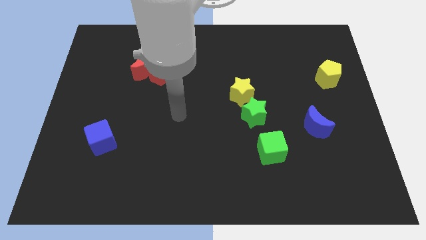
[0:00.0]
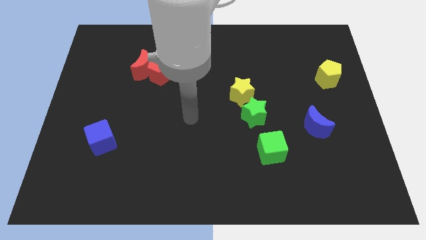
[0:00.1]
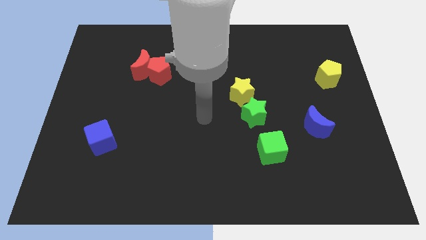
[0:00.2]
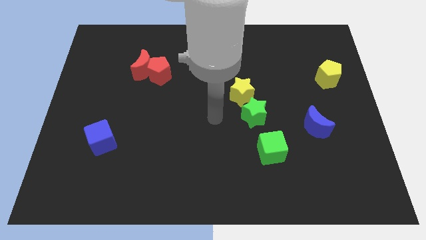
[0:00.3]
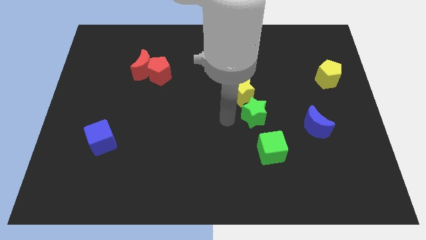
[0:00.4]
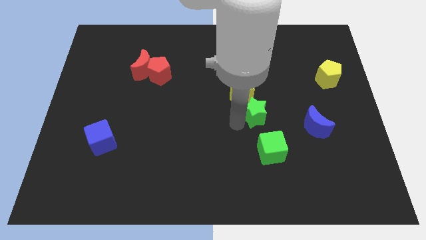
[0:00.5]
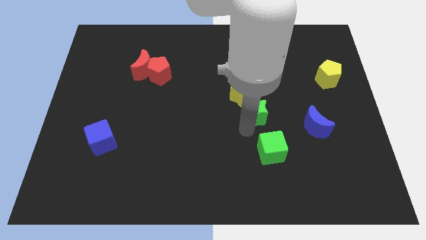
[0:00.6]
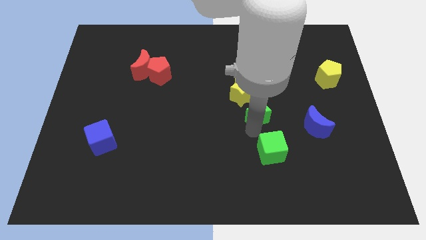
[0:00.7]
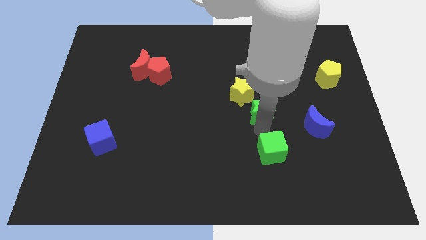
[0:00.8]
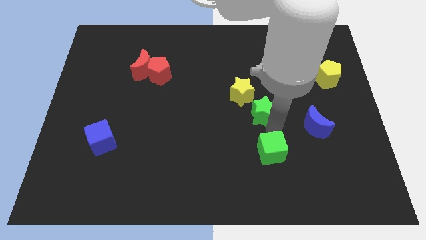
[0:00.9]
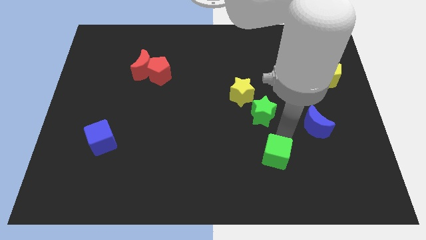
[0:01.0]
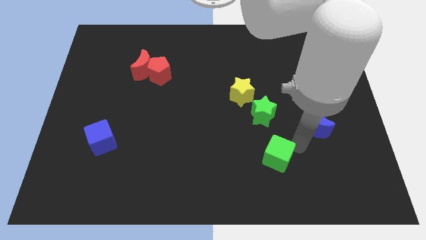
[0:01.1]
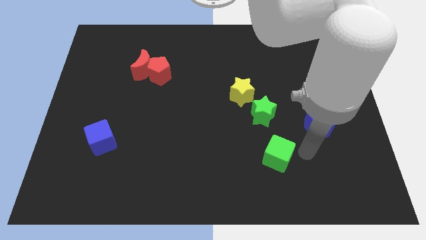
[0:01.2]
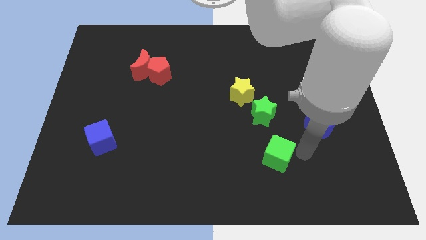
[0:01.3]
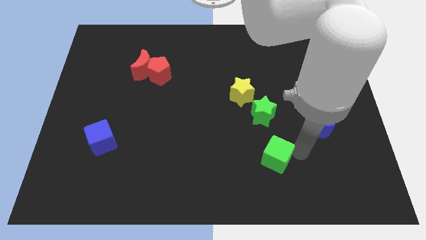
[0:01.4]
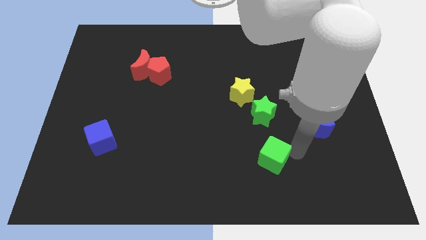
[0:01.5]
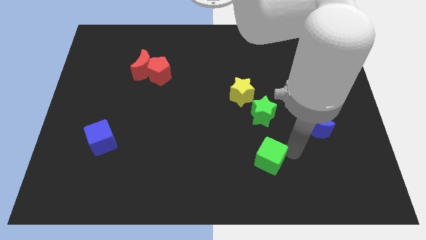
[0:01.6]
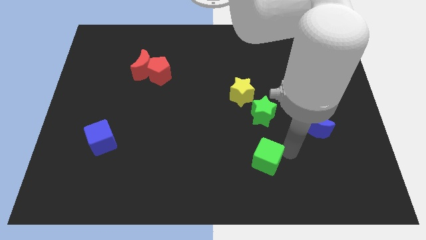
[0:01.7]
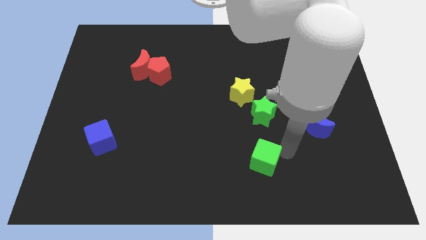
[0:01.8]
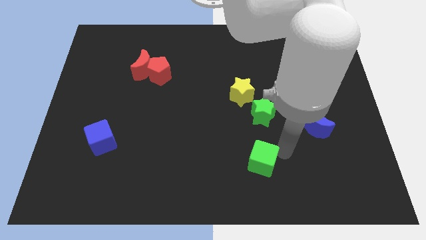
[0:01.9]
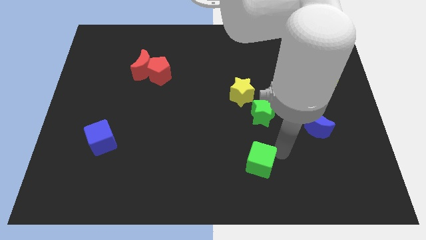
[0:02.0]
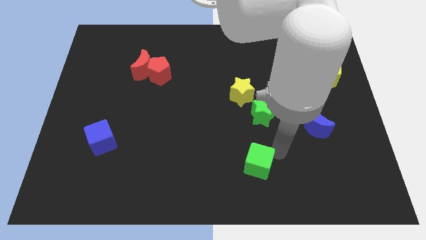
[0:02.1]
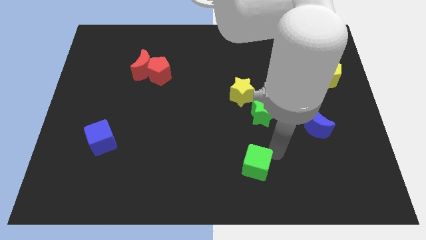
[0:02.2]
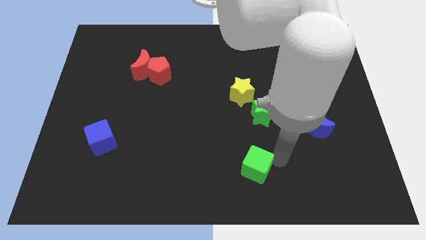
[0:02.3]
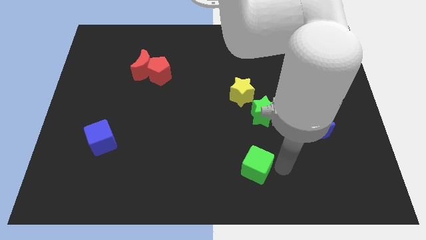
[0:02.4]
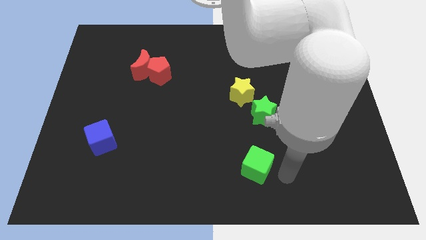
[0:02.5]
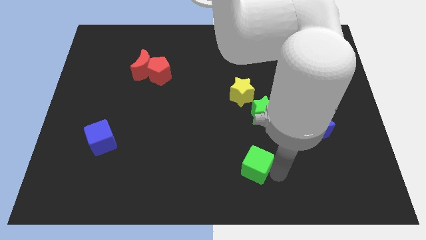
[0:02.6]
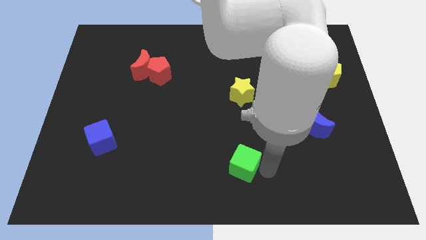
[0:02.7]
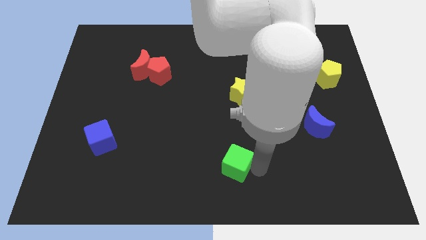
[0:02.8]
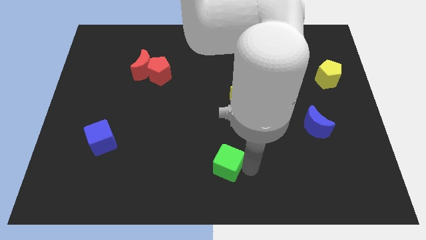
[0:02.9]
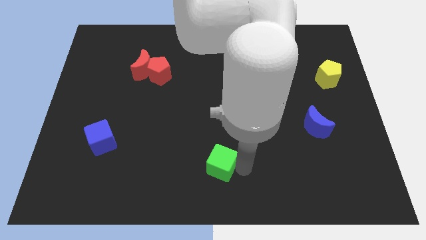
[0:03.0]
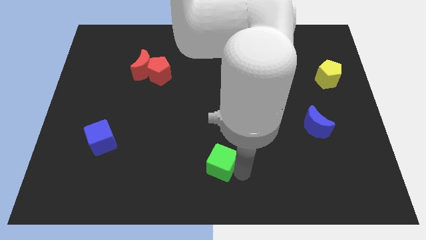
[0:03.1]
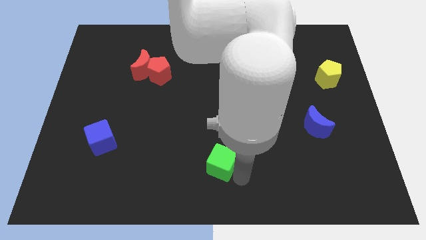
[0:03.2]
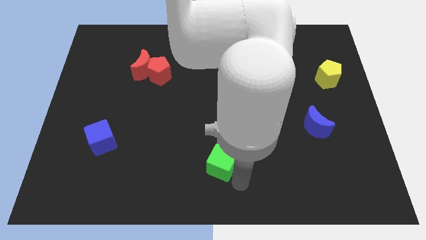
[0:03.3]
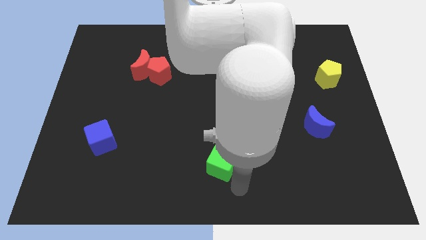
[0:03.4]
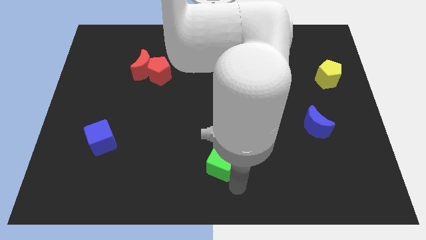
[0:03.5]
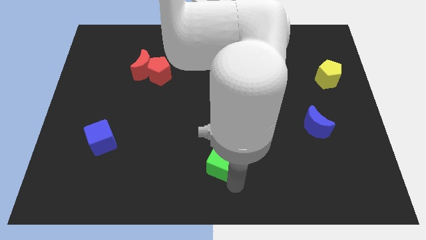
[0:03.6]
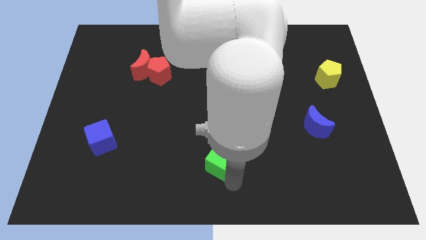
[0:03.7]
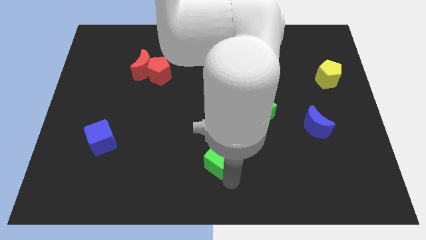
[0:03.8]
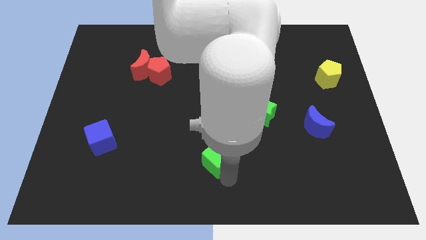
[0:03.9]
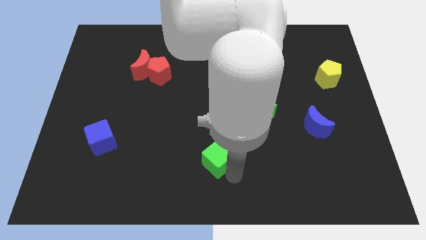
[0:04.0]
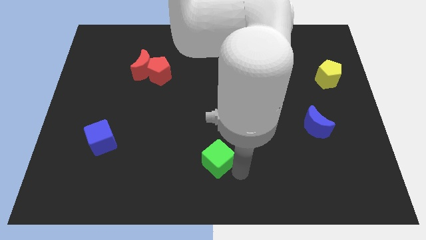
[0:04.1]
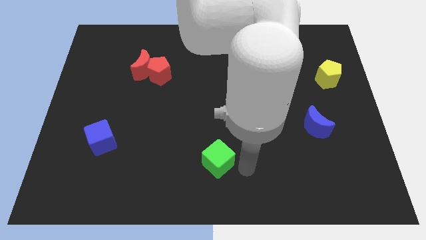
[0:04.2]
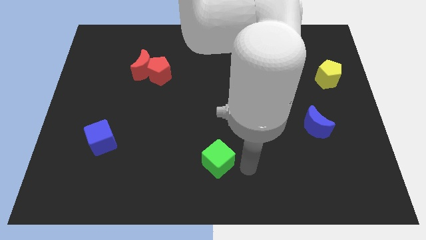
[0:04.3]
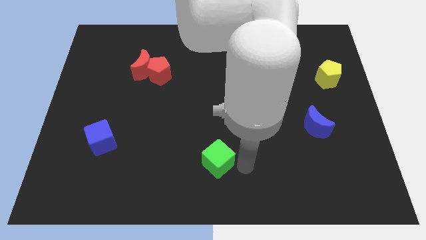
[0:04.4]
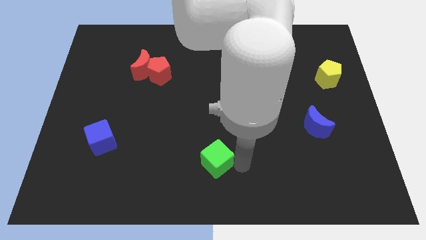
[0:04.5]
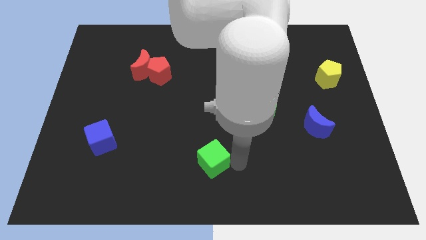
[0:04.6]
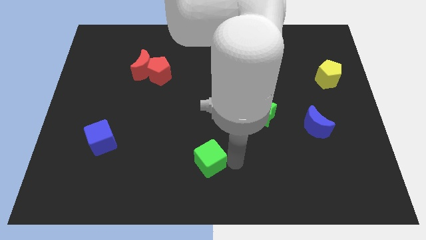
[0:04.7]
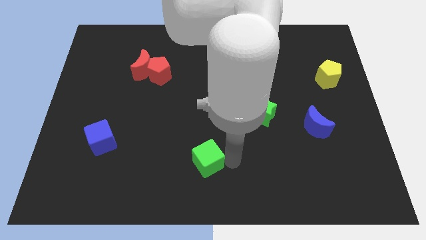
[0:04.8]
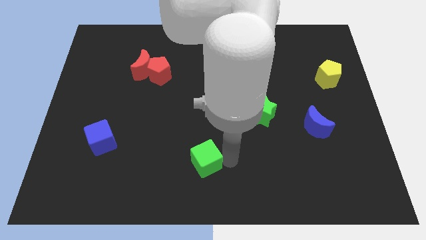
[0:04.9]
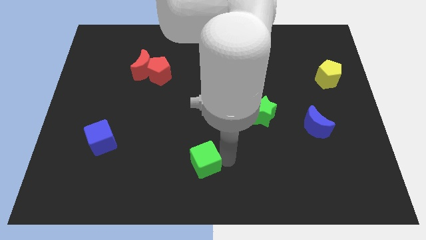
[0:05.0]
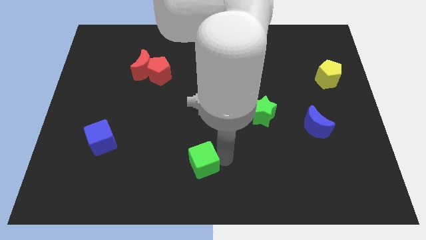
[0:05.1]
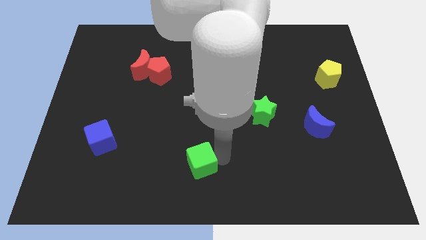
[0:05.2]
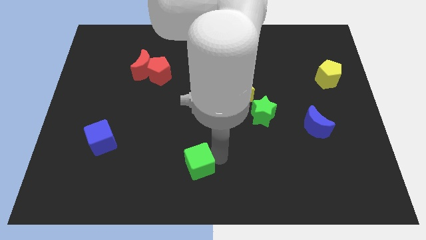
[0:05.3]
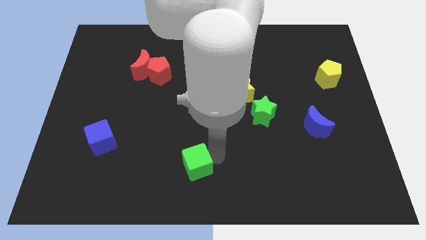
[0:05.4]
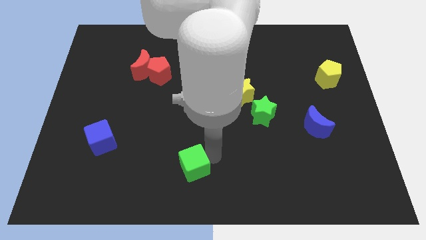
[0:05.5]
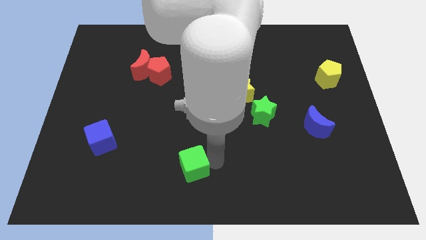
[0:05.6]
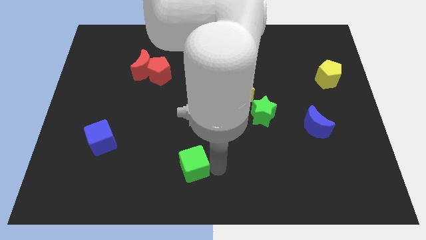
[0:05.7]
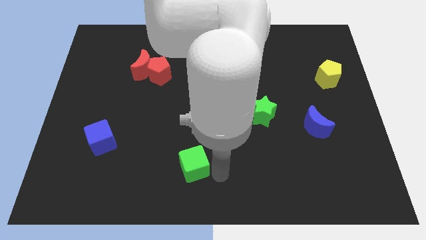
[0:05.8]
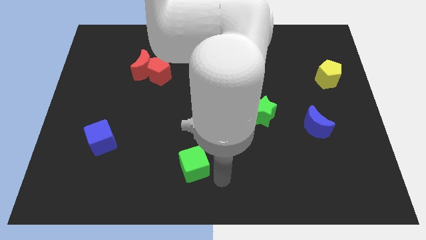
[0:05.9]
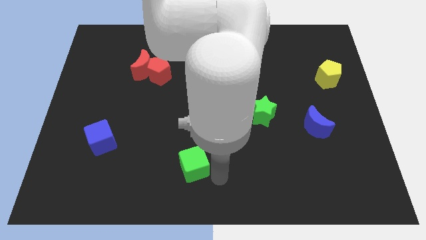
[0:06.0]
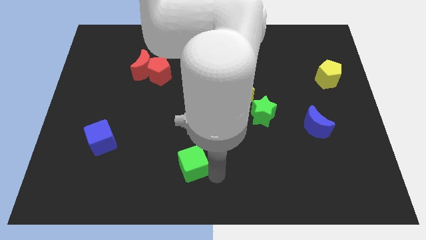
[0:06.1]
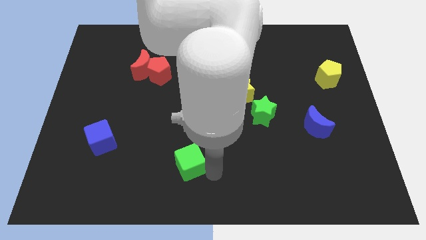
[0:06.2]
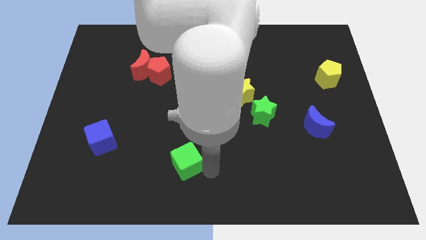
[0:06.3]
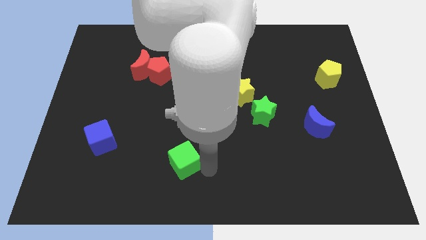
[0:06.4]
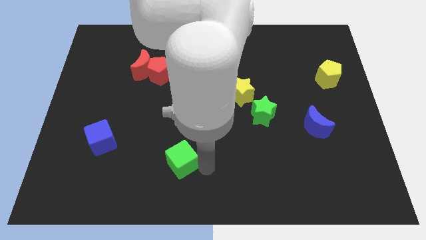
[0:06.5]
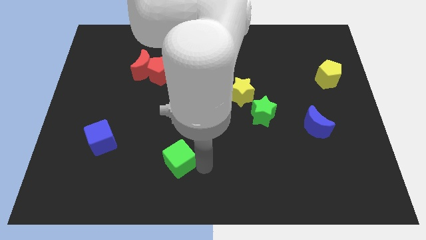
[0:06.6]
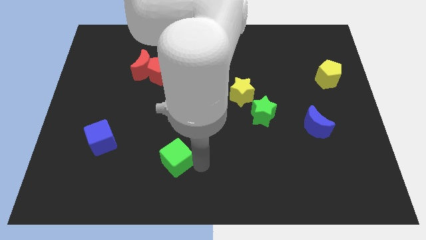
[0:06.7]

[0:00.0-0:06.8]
slide the green cube left

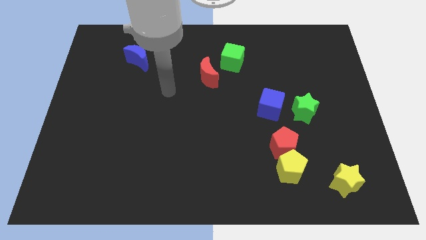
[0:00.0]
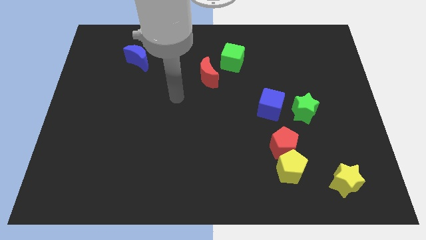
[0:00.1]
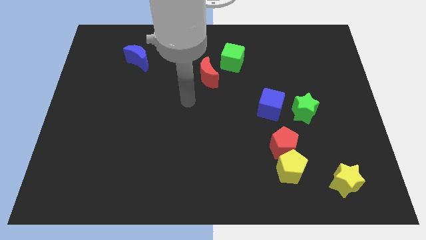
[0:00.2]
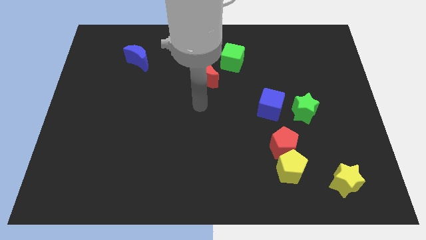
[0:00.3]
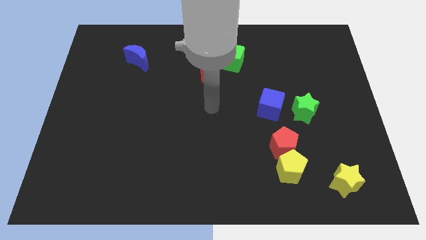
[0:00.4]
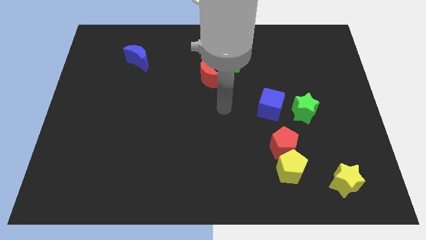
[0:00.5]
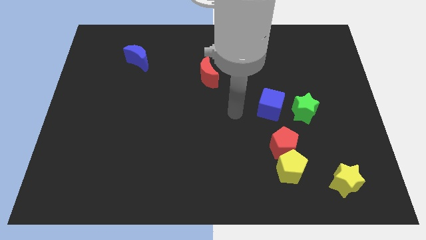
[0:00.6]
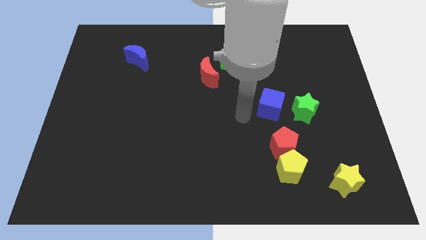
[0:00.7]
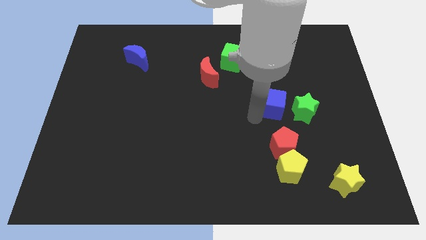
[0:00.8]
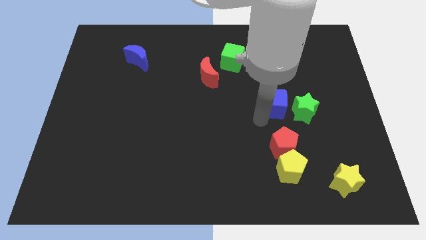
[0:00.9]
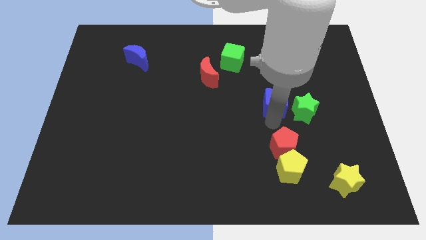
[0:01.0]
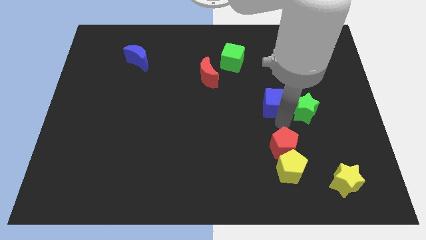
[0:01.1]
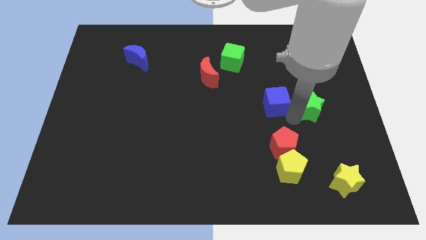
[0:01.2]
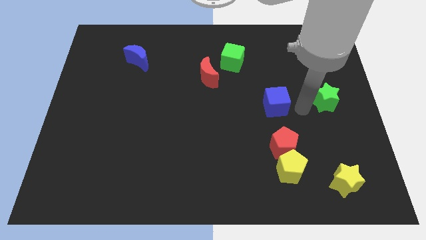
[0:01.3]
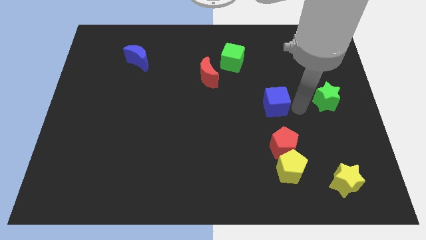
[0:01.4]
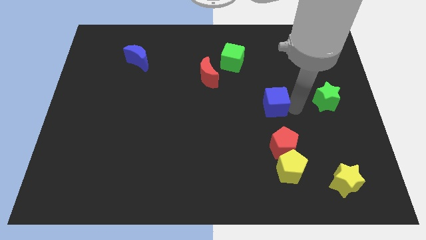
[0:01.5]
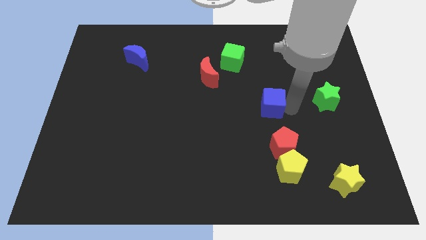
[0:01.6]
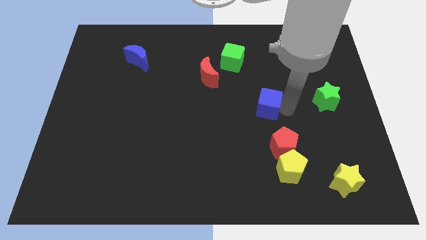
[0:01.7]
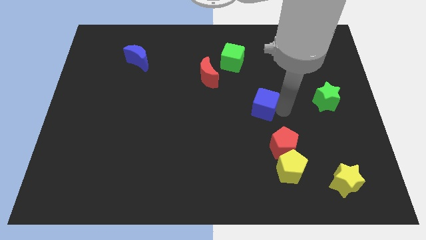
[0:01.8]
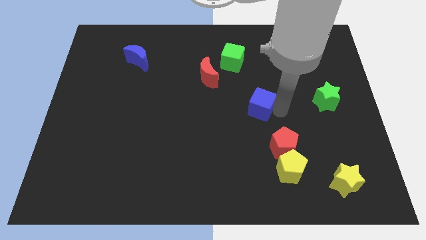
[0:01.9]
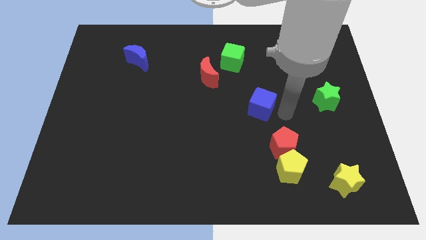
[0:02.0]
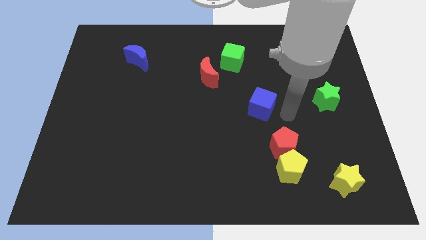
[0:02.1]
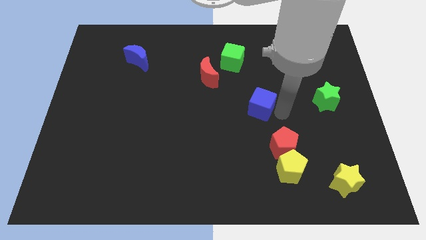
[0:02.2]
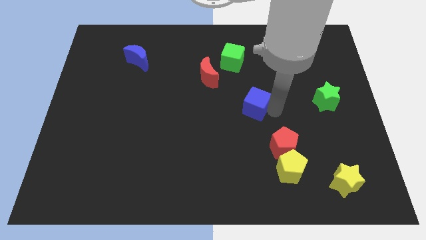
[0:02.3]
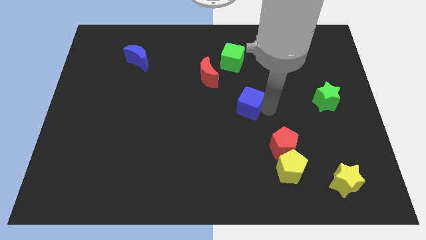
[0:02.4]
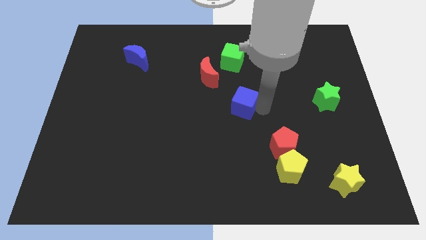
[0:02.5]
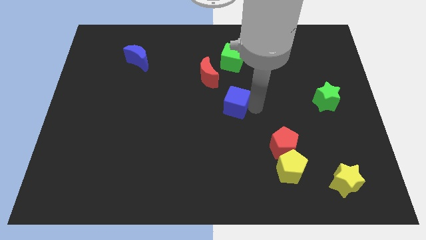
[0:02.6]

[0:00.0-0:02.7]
slightly slide the blue cube left
